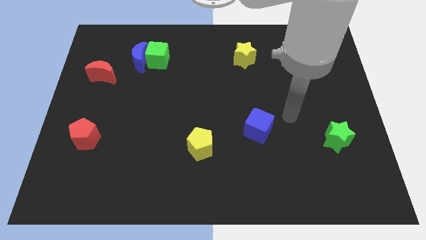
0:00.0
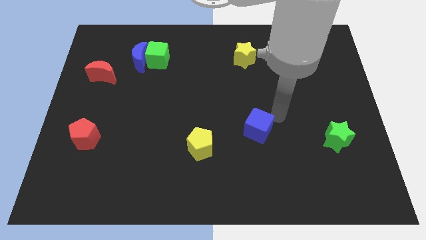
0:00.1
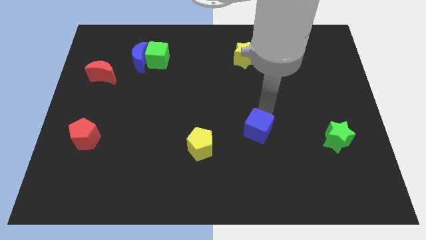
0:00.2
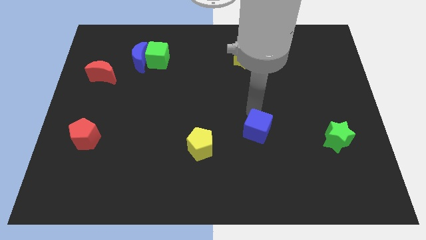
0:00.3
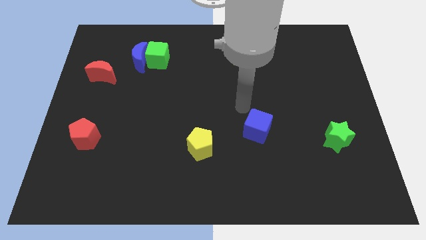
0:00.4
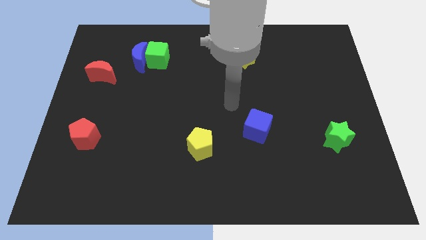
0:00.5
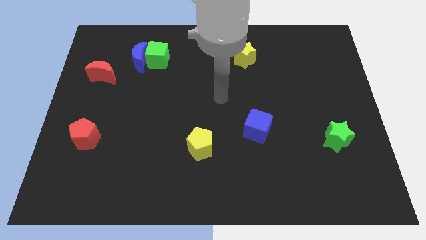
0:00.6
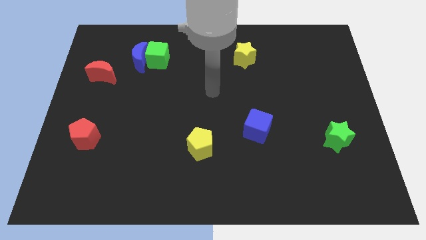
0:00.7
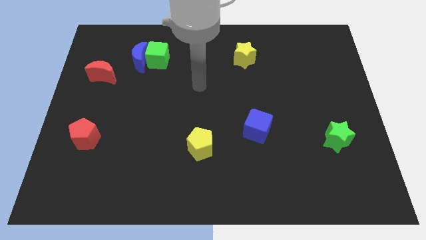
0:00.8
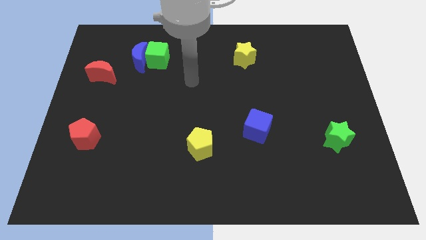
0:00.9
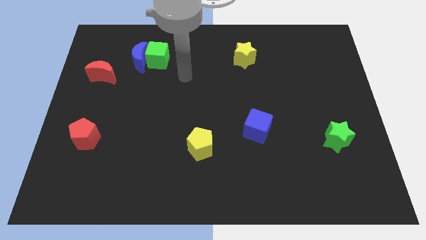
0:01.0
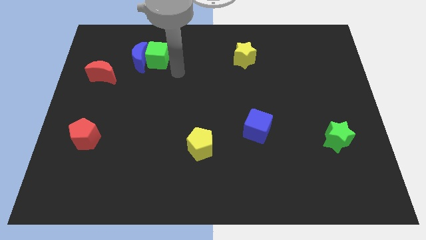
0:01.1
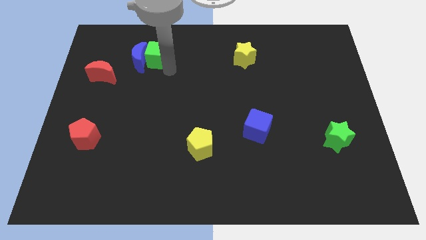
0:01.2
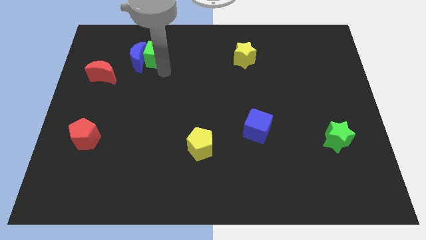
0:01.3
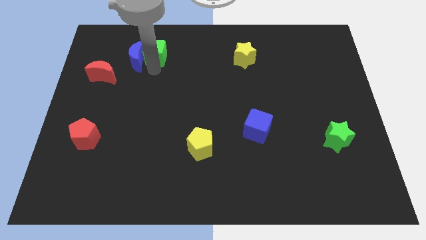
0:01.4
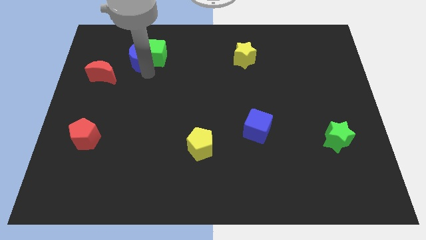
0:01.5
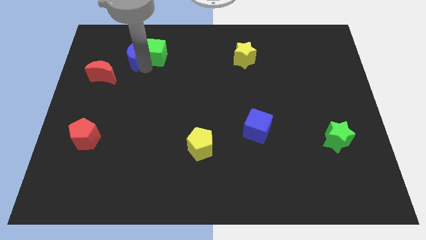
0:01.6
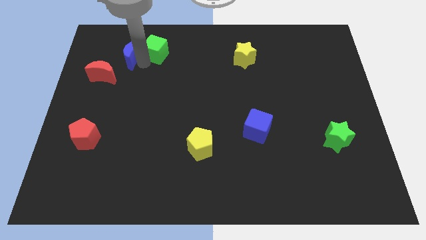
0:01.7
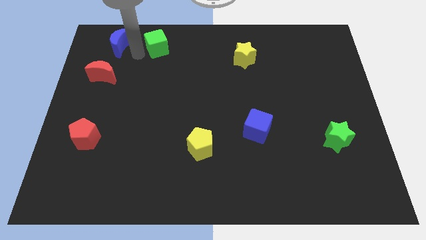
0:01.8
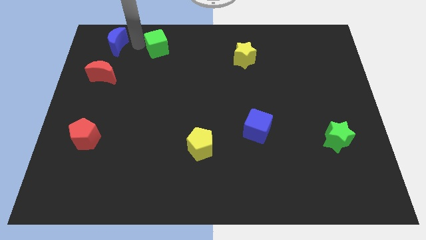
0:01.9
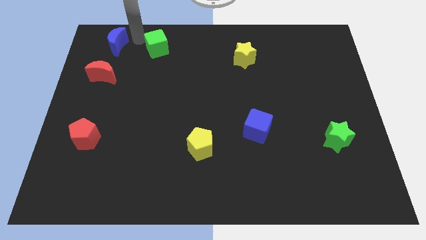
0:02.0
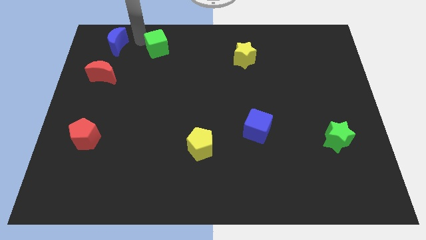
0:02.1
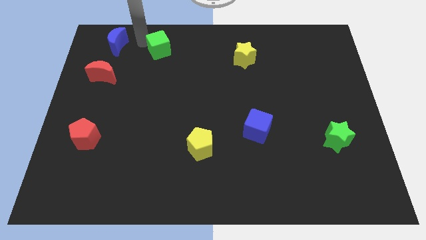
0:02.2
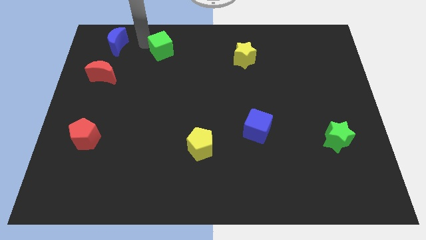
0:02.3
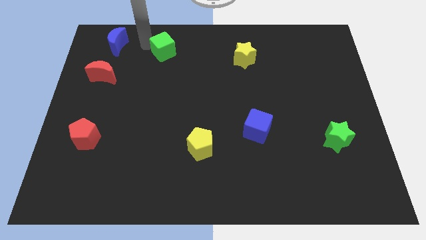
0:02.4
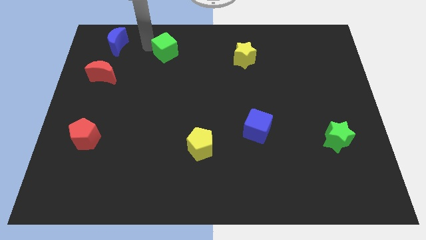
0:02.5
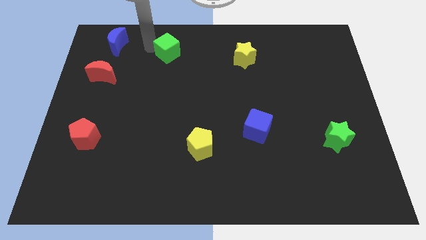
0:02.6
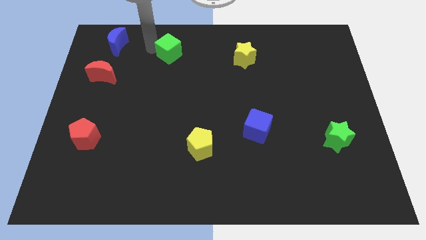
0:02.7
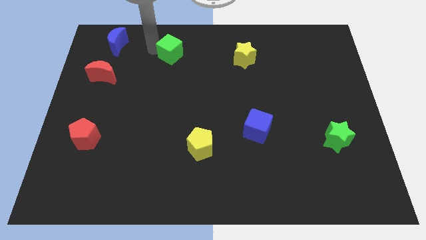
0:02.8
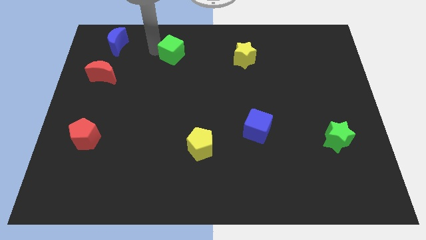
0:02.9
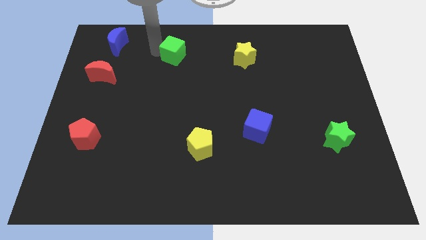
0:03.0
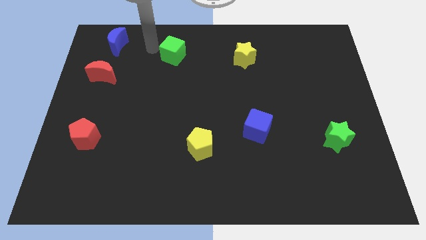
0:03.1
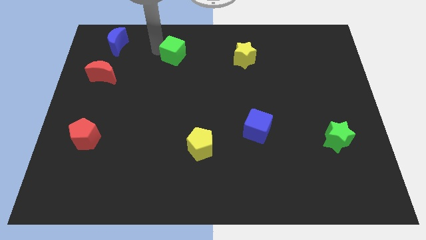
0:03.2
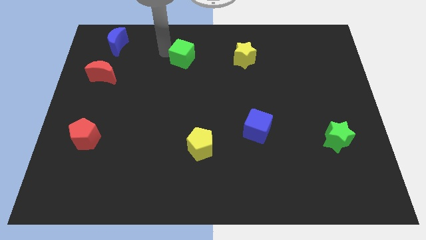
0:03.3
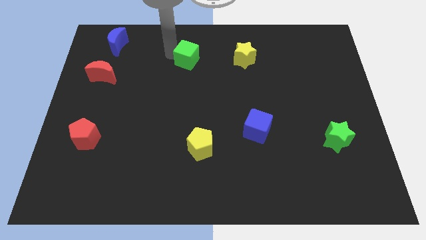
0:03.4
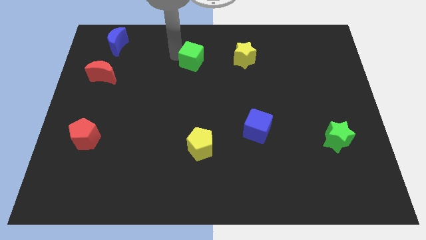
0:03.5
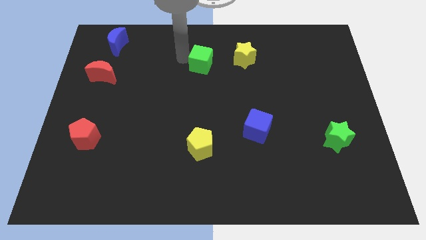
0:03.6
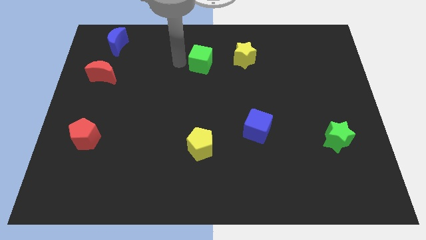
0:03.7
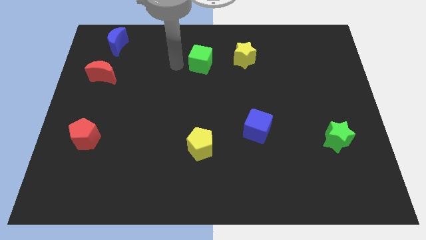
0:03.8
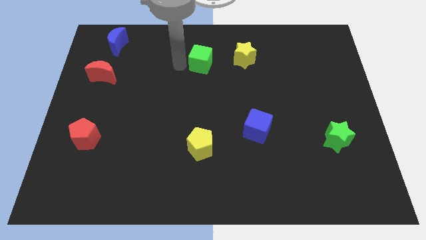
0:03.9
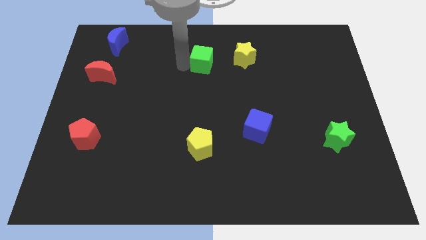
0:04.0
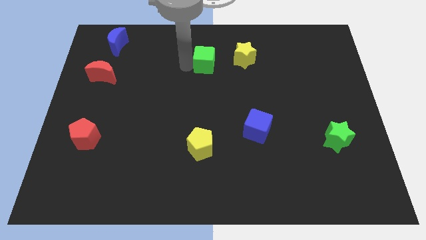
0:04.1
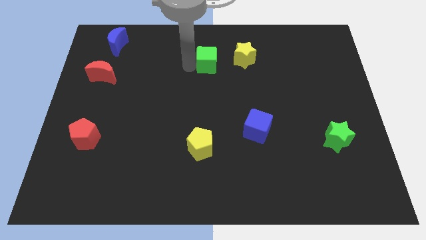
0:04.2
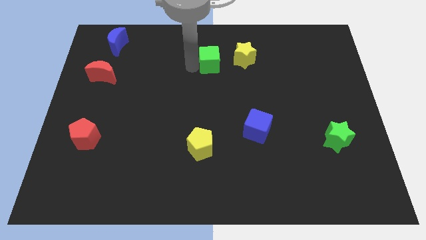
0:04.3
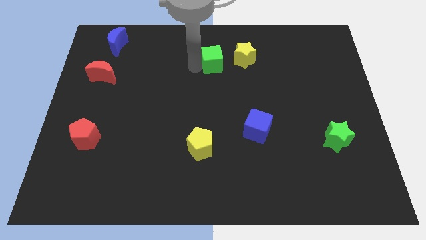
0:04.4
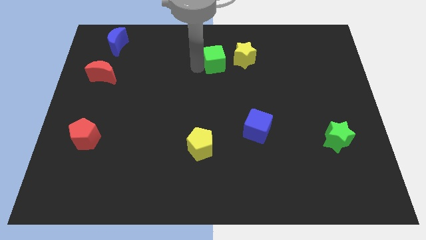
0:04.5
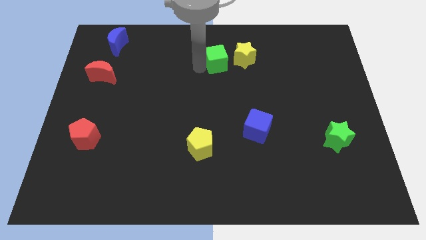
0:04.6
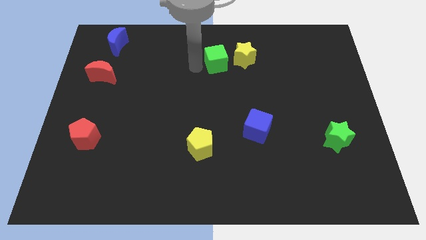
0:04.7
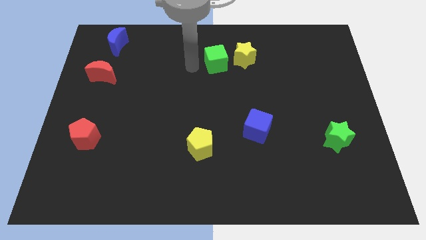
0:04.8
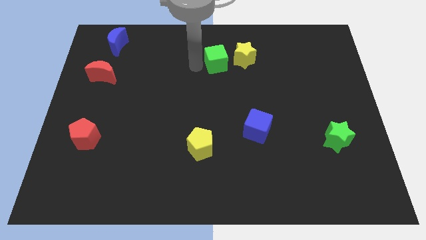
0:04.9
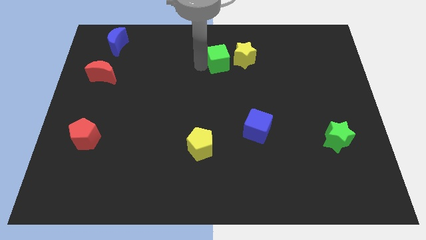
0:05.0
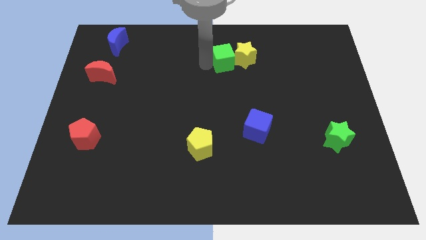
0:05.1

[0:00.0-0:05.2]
slide the green cube to the yellow star

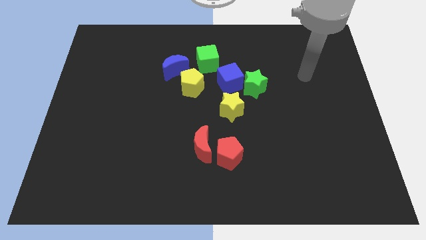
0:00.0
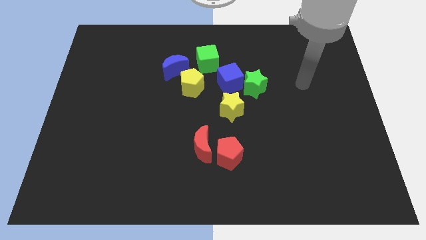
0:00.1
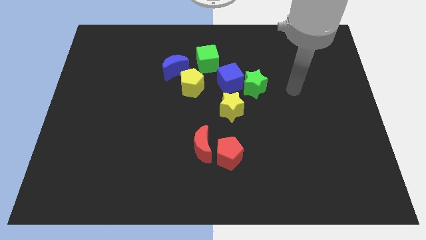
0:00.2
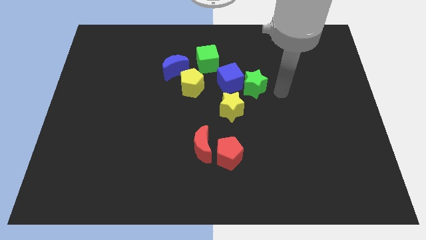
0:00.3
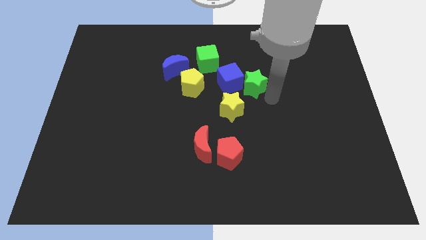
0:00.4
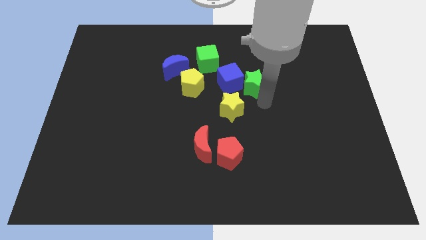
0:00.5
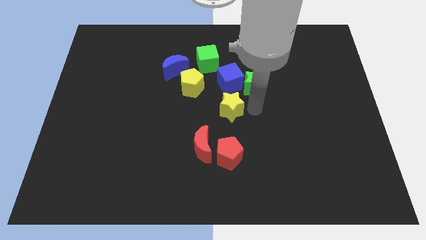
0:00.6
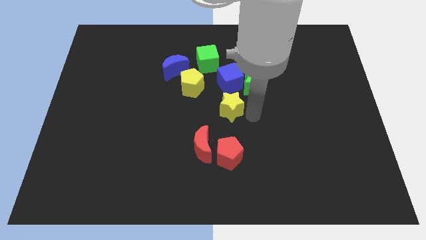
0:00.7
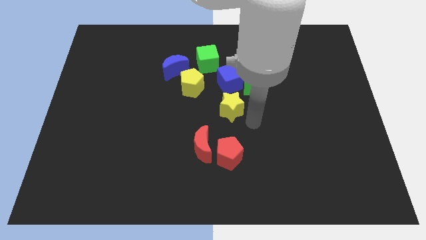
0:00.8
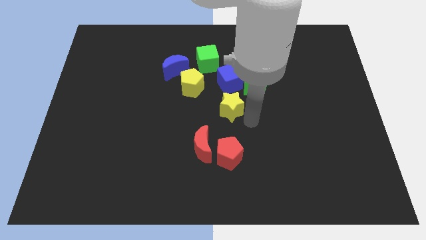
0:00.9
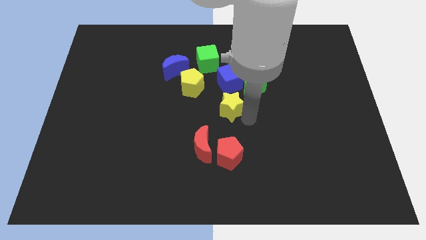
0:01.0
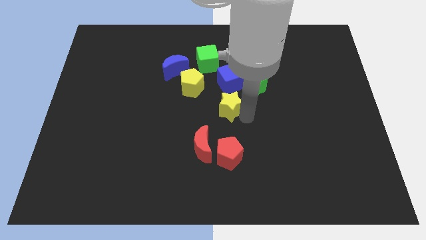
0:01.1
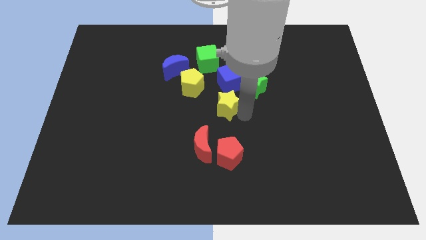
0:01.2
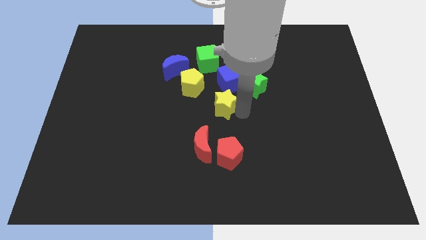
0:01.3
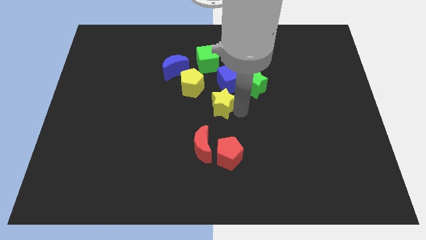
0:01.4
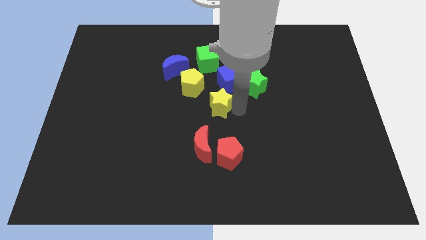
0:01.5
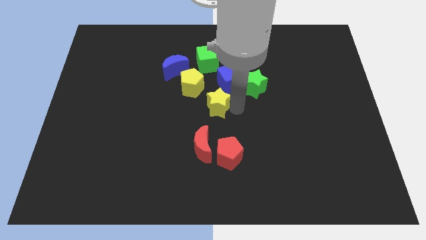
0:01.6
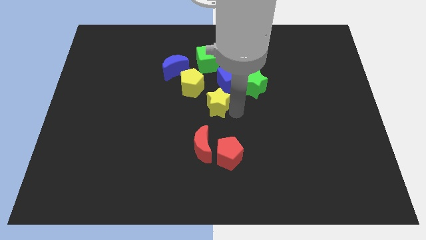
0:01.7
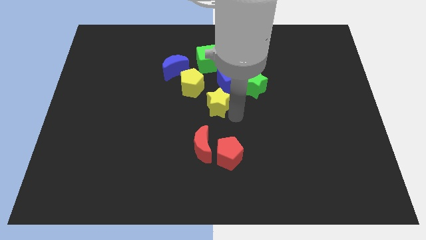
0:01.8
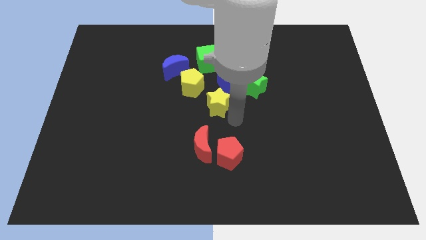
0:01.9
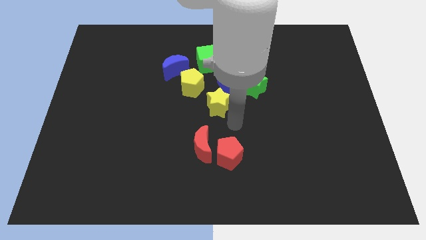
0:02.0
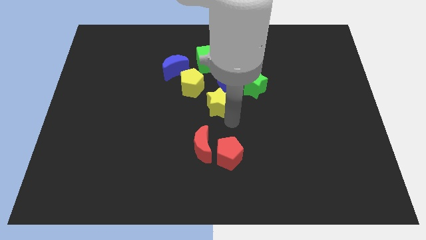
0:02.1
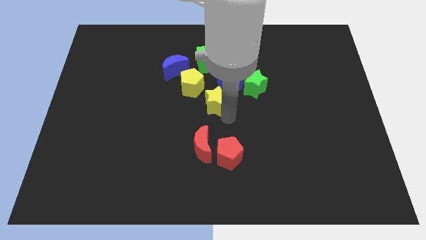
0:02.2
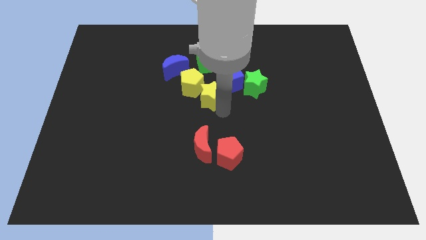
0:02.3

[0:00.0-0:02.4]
put the yellow star to the yellow pentagon
